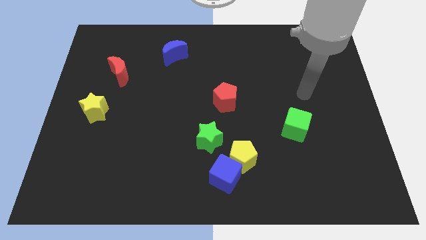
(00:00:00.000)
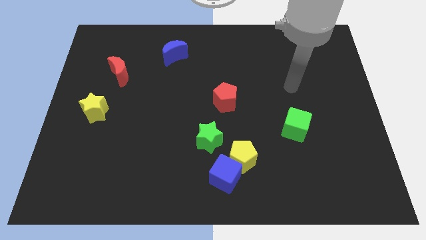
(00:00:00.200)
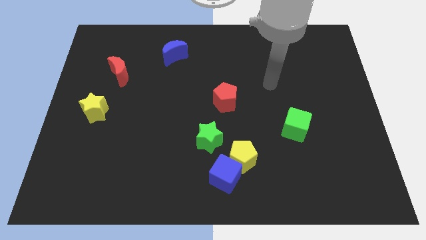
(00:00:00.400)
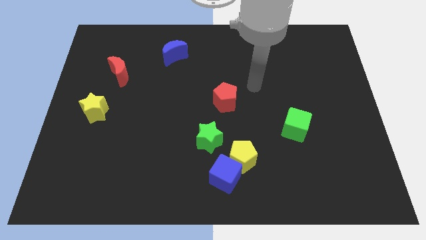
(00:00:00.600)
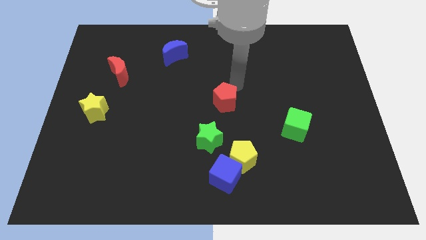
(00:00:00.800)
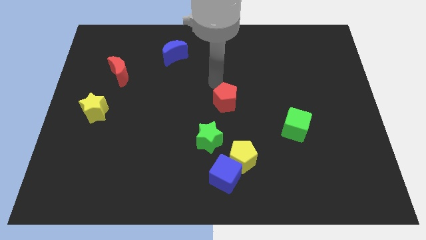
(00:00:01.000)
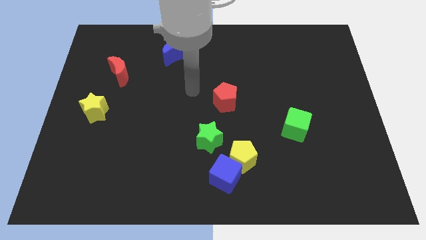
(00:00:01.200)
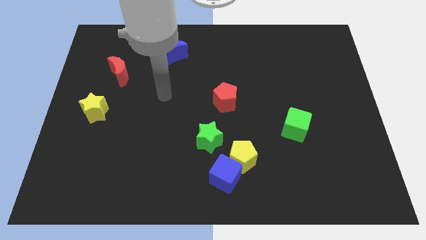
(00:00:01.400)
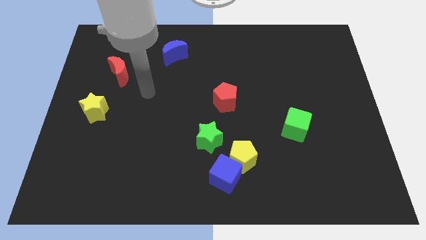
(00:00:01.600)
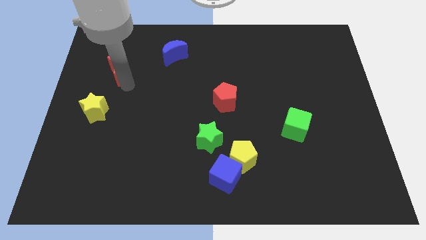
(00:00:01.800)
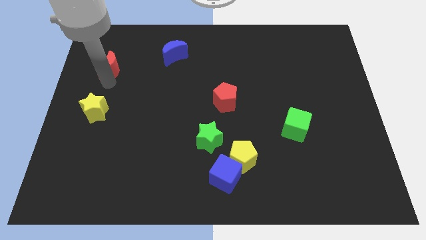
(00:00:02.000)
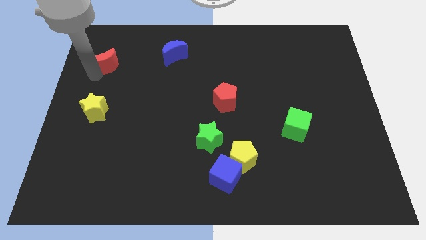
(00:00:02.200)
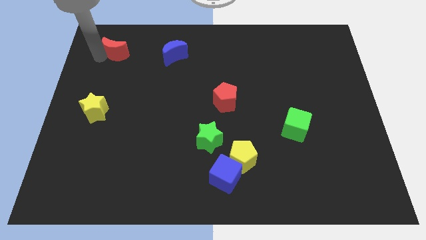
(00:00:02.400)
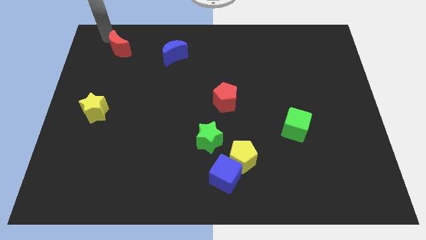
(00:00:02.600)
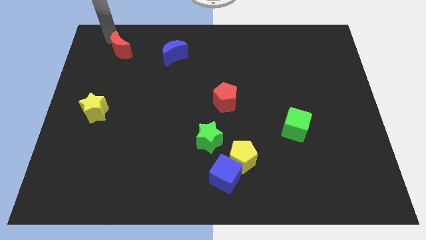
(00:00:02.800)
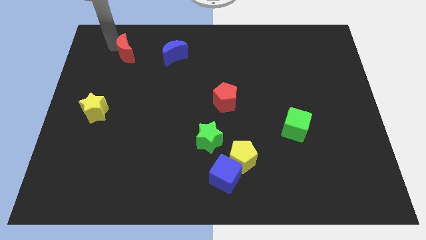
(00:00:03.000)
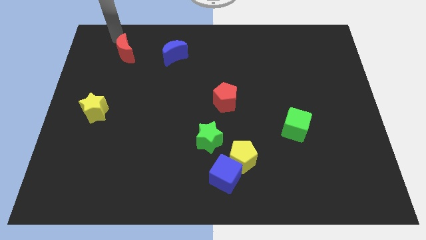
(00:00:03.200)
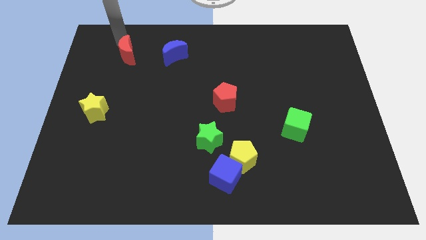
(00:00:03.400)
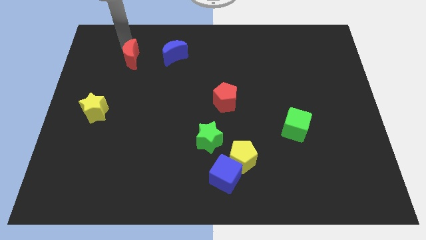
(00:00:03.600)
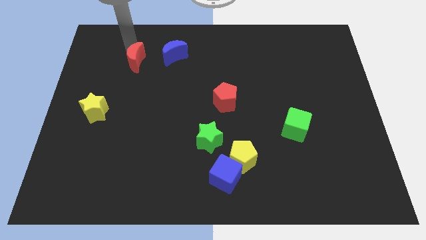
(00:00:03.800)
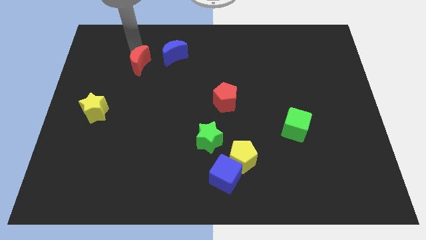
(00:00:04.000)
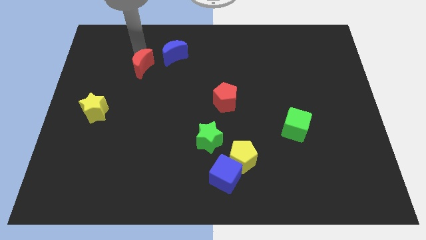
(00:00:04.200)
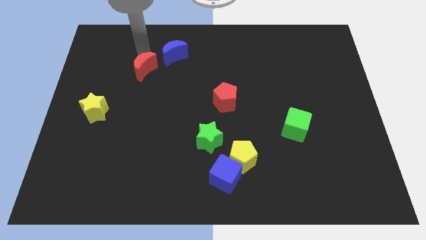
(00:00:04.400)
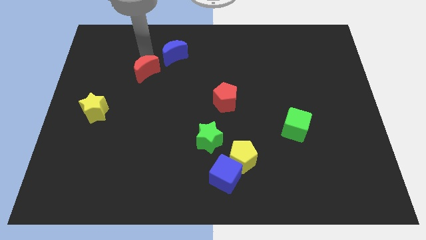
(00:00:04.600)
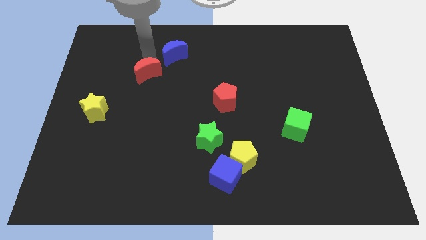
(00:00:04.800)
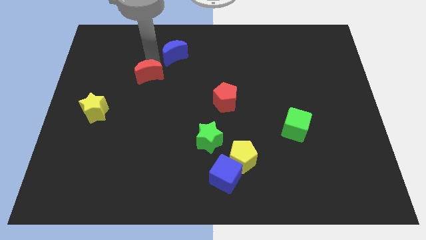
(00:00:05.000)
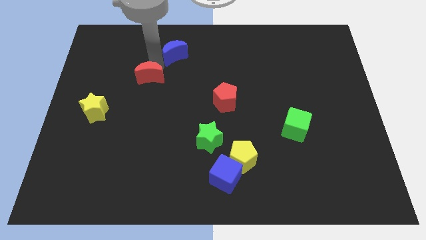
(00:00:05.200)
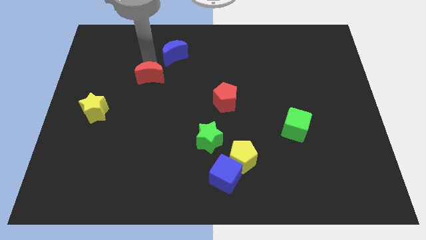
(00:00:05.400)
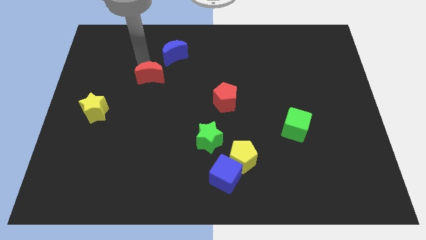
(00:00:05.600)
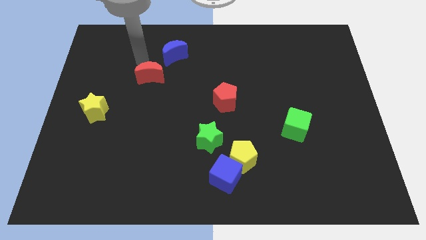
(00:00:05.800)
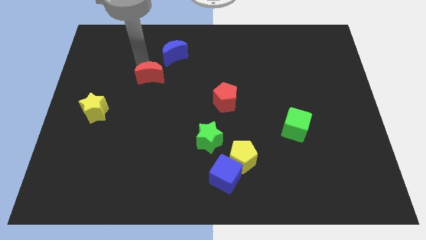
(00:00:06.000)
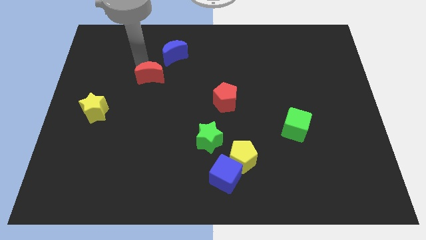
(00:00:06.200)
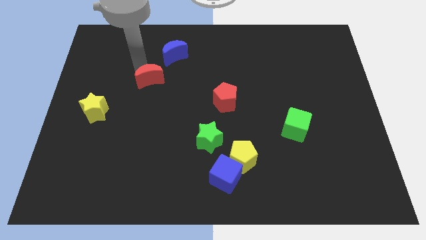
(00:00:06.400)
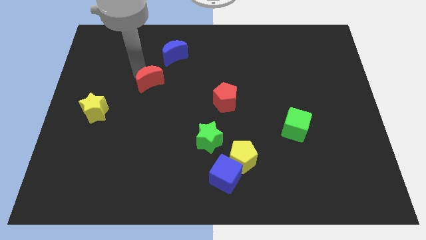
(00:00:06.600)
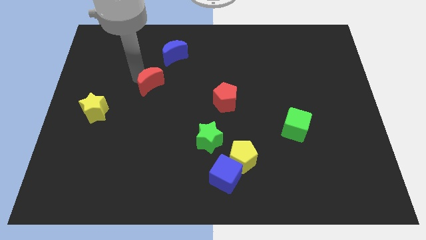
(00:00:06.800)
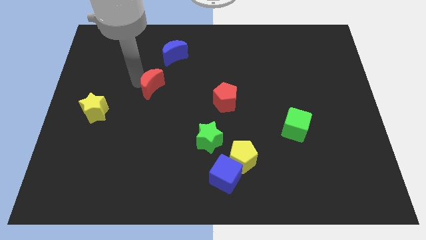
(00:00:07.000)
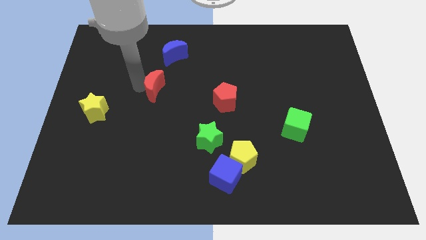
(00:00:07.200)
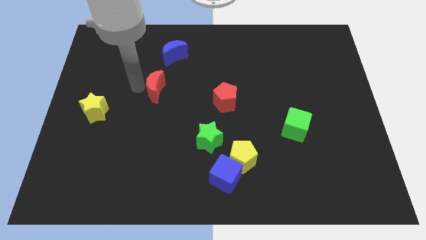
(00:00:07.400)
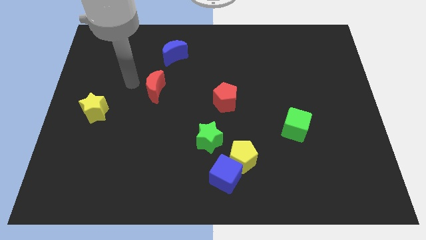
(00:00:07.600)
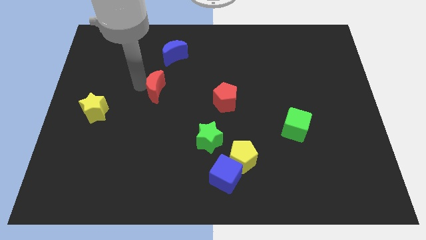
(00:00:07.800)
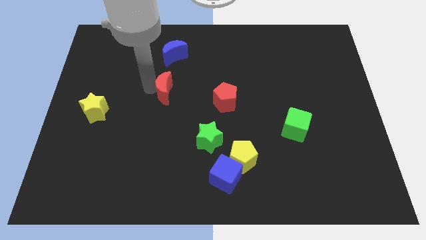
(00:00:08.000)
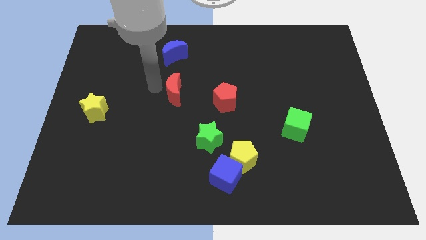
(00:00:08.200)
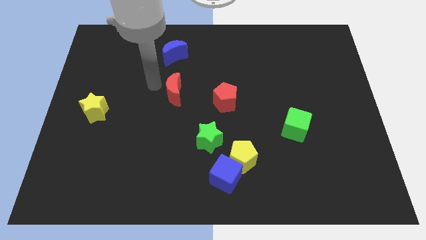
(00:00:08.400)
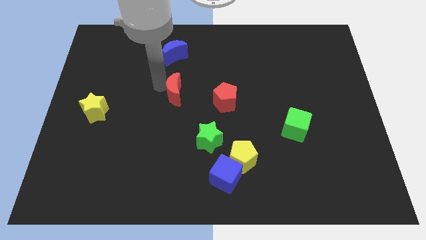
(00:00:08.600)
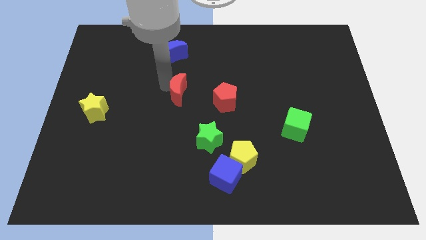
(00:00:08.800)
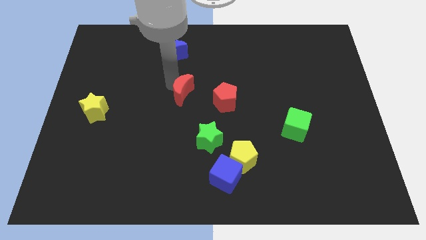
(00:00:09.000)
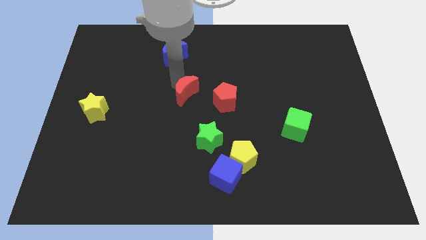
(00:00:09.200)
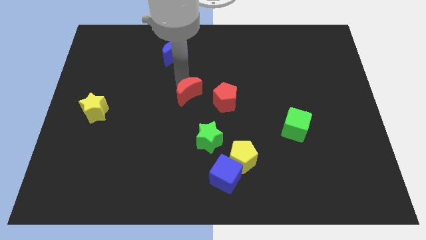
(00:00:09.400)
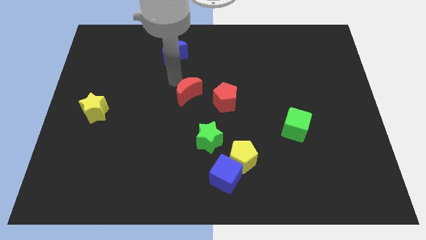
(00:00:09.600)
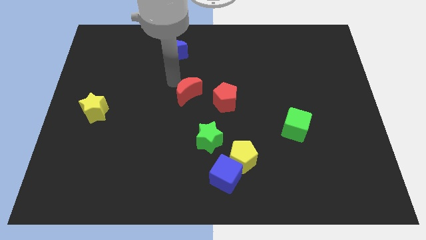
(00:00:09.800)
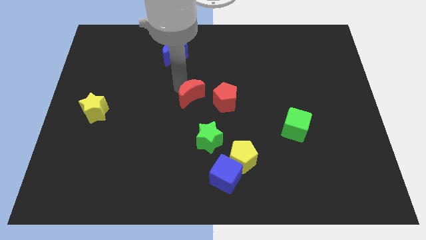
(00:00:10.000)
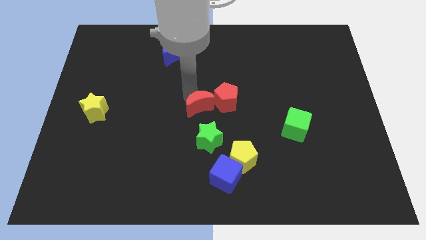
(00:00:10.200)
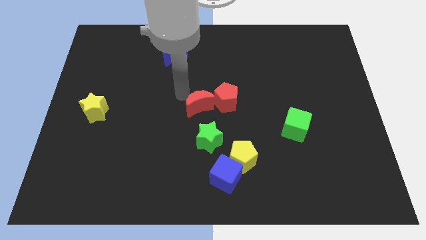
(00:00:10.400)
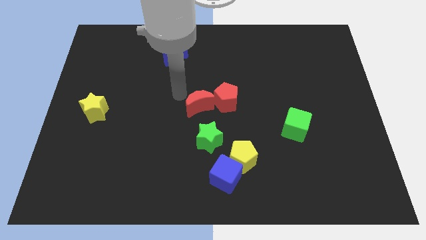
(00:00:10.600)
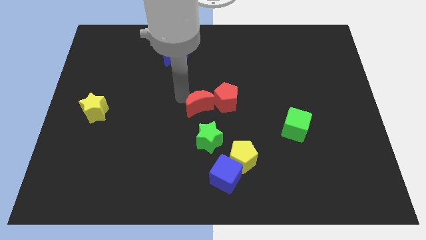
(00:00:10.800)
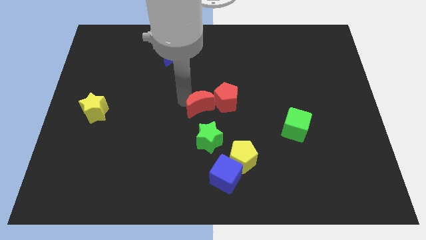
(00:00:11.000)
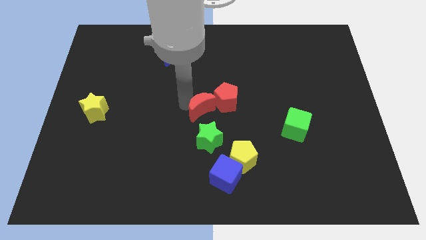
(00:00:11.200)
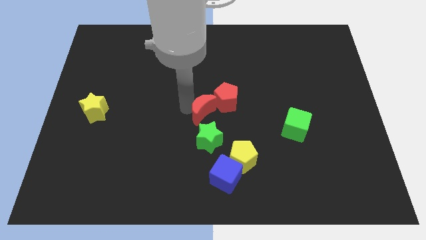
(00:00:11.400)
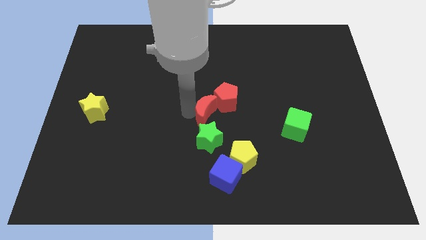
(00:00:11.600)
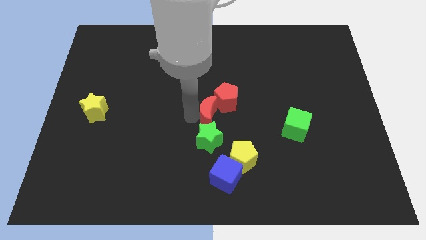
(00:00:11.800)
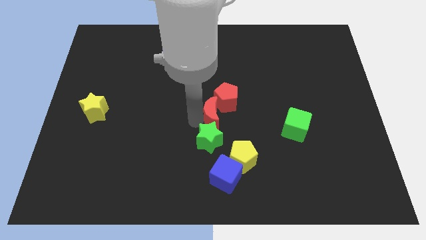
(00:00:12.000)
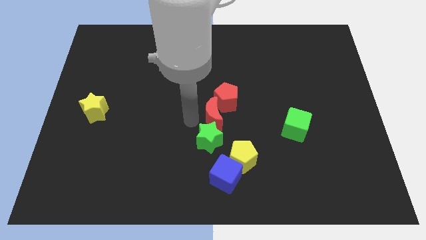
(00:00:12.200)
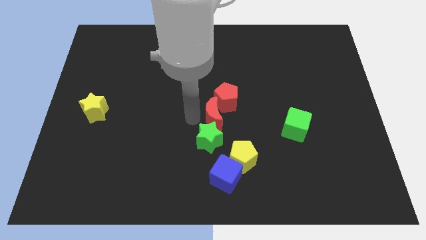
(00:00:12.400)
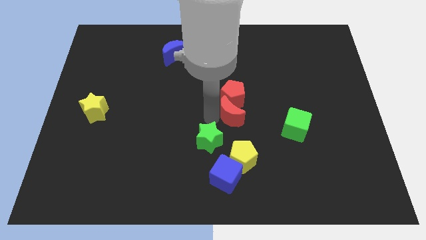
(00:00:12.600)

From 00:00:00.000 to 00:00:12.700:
slide the red moon to the bottom right of the red pentagon

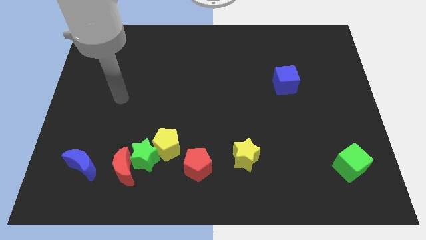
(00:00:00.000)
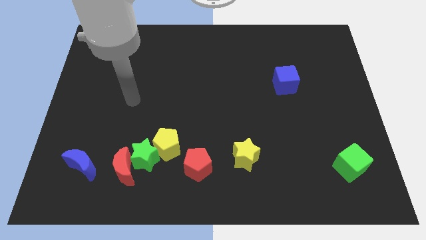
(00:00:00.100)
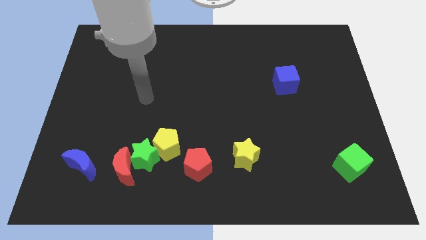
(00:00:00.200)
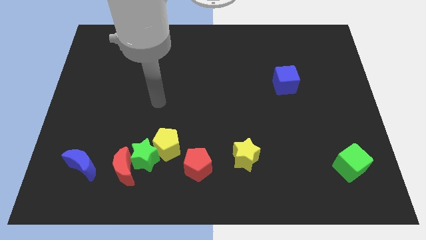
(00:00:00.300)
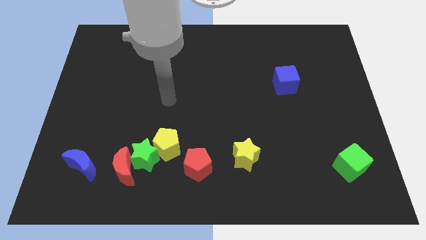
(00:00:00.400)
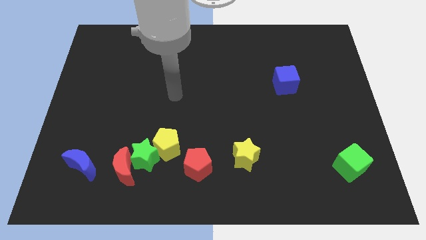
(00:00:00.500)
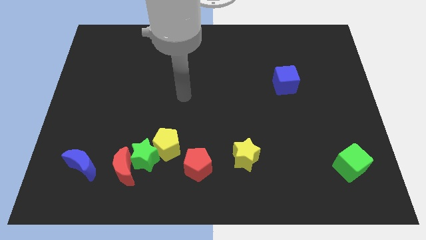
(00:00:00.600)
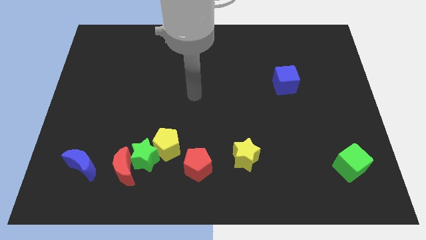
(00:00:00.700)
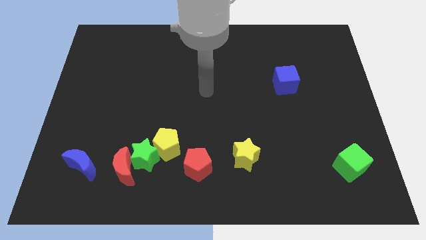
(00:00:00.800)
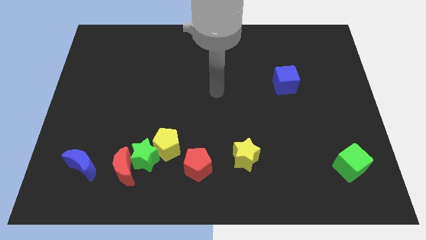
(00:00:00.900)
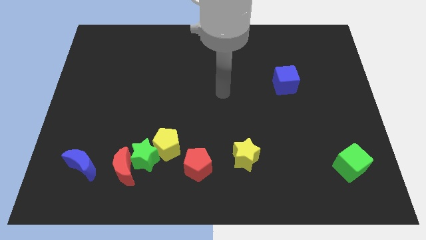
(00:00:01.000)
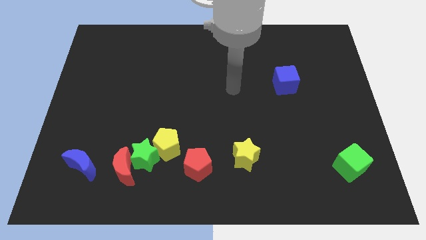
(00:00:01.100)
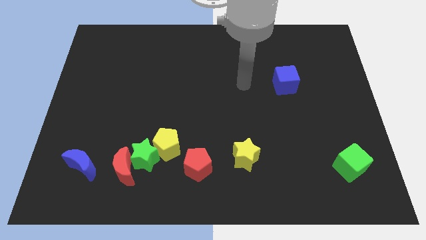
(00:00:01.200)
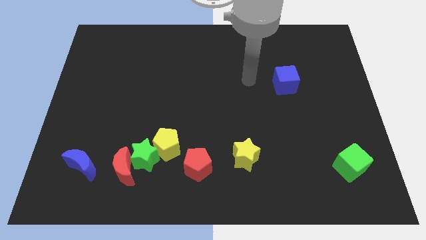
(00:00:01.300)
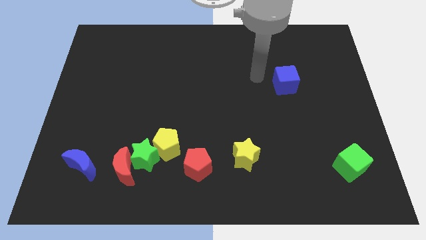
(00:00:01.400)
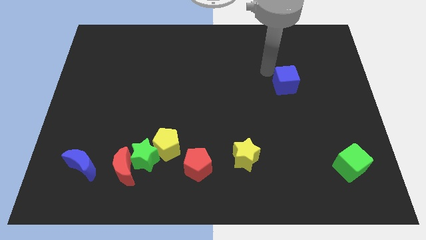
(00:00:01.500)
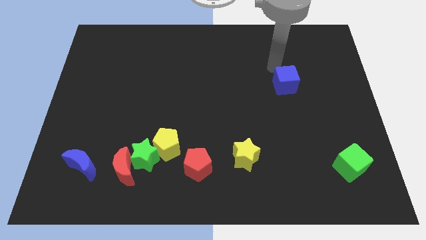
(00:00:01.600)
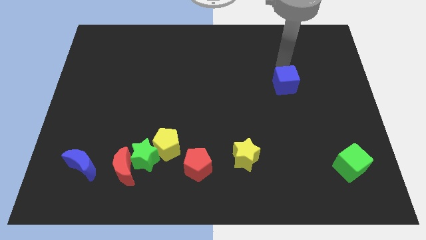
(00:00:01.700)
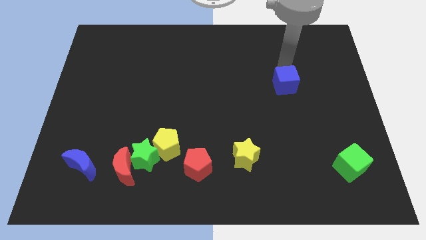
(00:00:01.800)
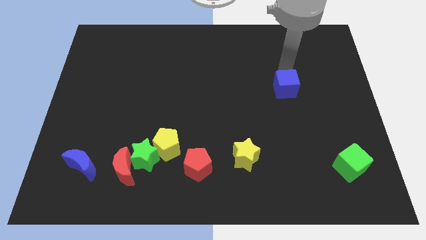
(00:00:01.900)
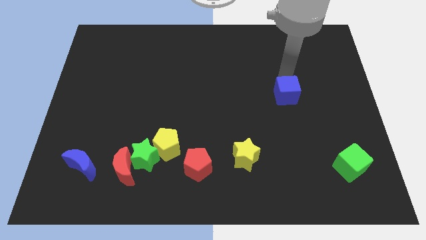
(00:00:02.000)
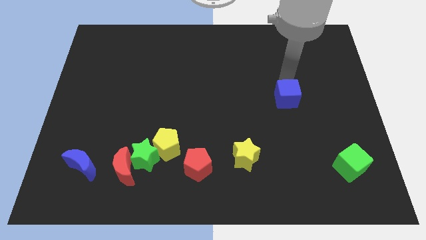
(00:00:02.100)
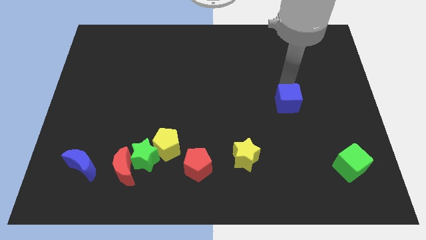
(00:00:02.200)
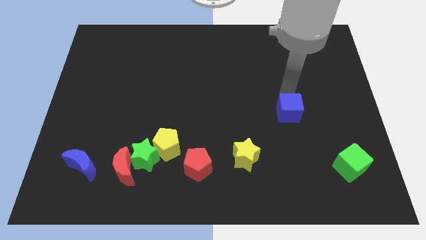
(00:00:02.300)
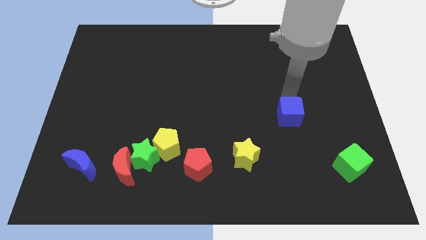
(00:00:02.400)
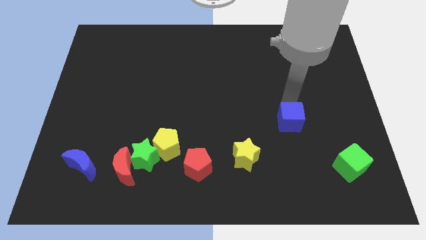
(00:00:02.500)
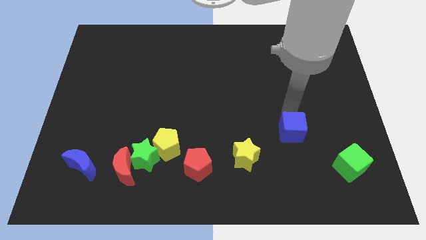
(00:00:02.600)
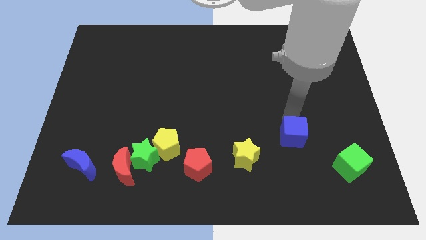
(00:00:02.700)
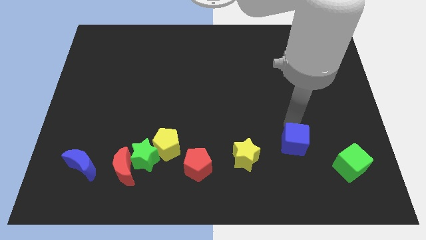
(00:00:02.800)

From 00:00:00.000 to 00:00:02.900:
slide the blue cube right of the yellow star
